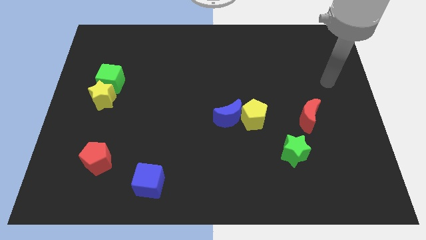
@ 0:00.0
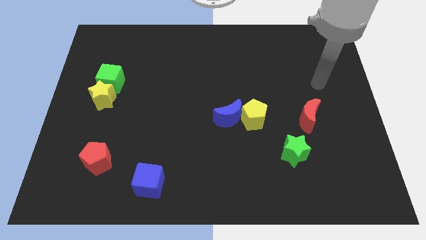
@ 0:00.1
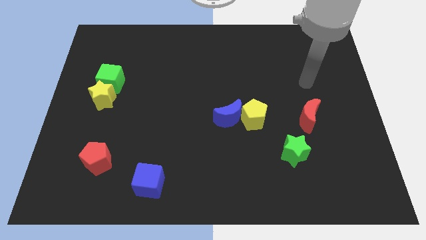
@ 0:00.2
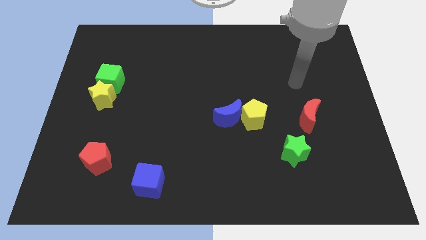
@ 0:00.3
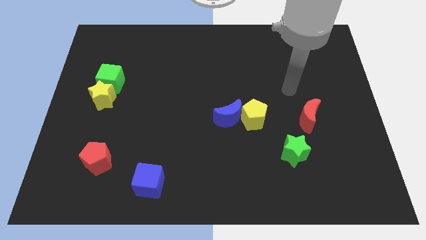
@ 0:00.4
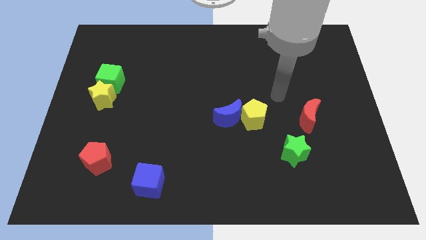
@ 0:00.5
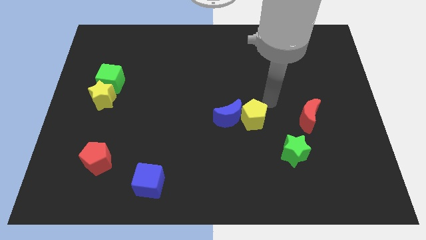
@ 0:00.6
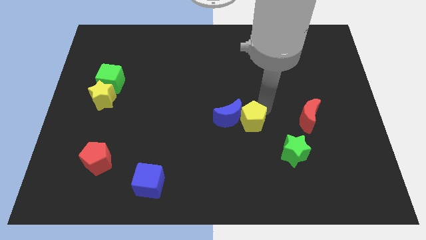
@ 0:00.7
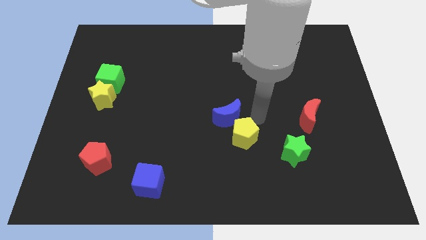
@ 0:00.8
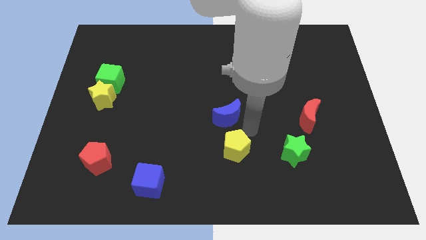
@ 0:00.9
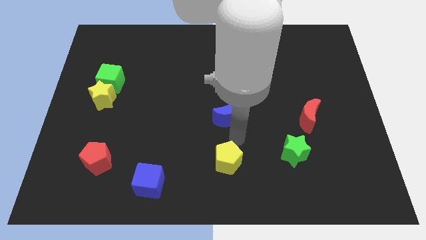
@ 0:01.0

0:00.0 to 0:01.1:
pull the blue moon apart from the yellow pentagon

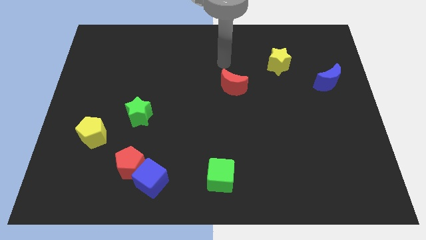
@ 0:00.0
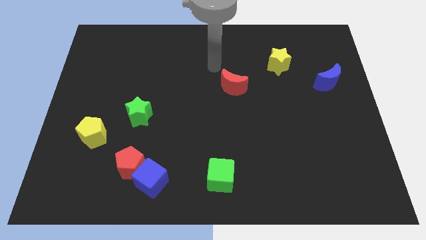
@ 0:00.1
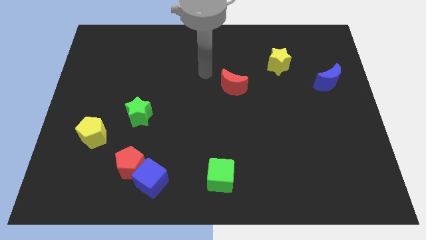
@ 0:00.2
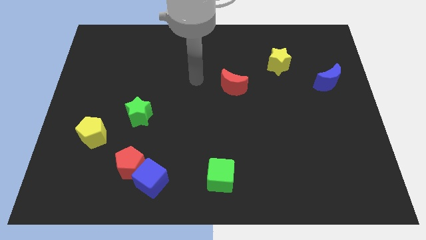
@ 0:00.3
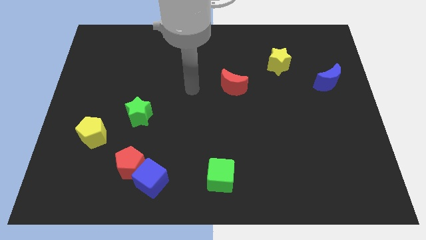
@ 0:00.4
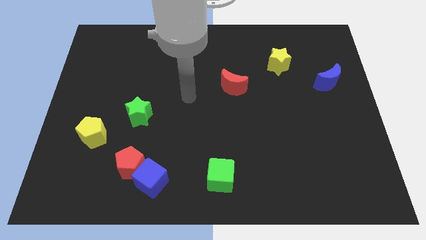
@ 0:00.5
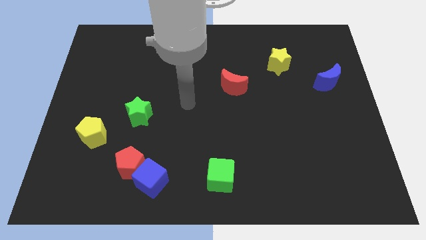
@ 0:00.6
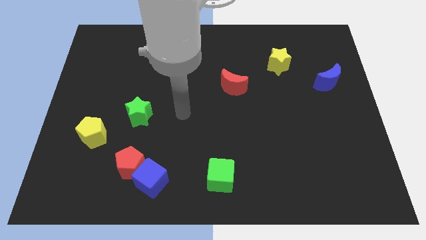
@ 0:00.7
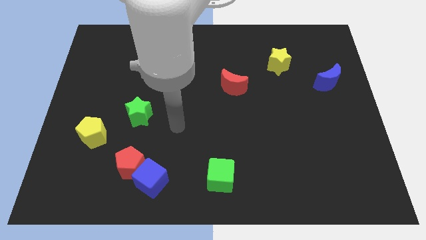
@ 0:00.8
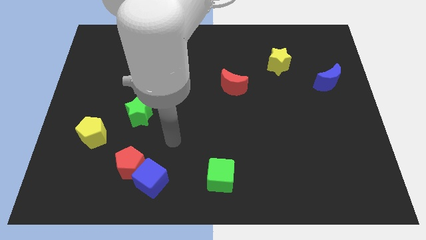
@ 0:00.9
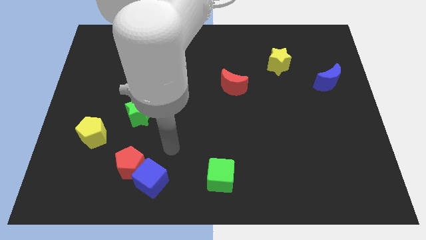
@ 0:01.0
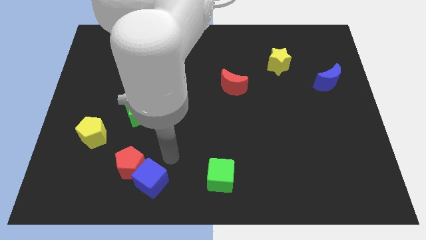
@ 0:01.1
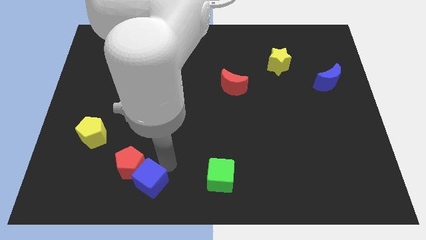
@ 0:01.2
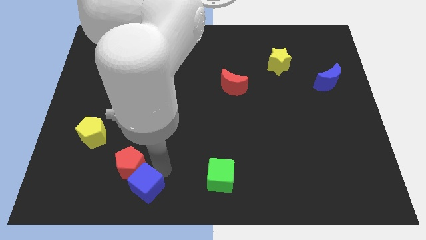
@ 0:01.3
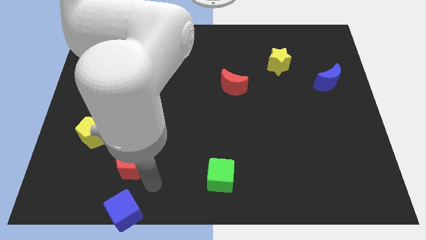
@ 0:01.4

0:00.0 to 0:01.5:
separate the red pentagon from the blue cube

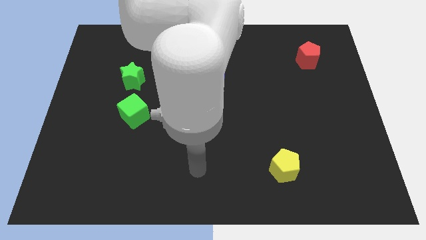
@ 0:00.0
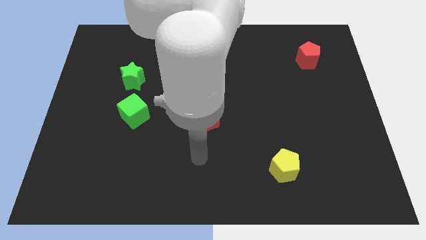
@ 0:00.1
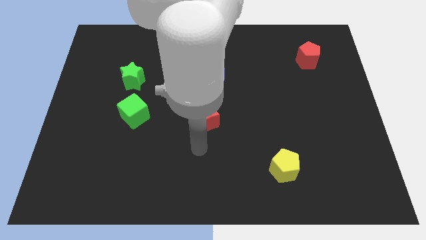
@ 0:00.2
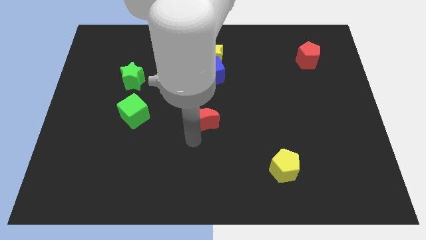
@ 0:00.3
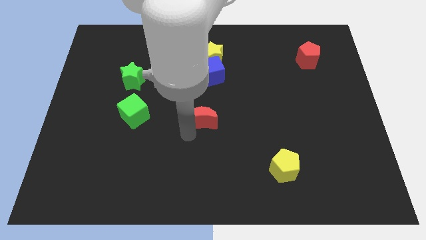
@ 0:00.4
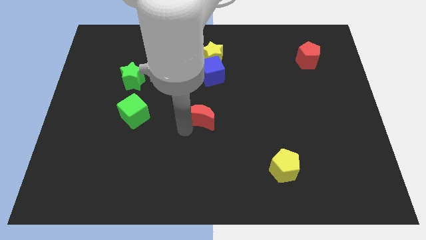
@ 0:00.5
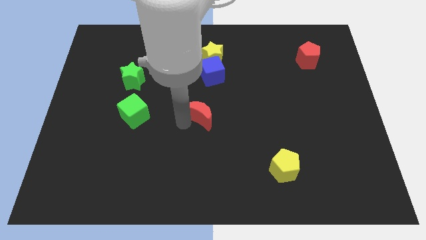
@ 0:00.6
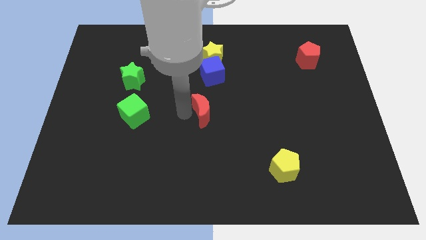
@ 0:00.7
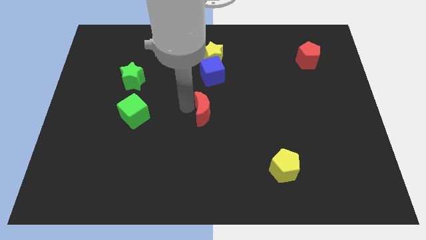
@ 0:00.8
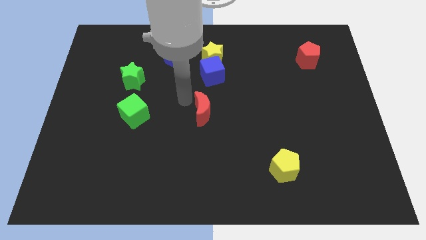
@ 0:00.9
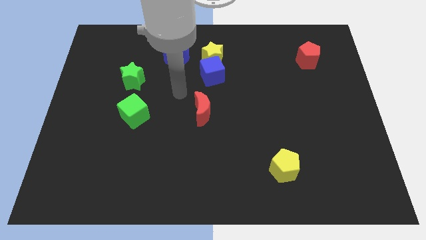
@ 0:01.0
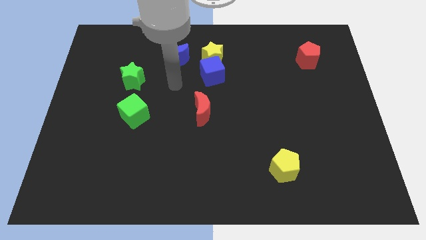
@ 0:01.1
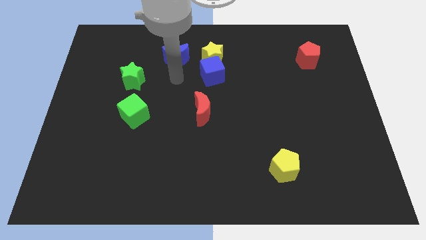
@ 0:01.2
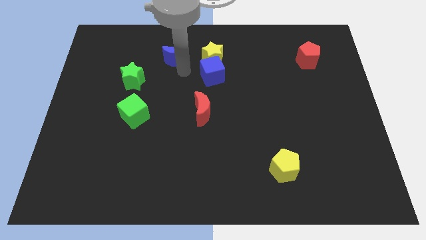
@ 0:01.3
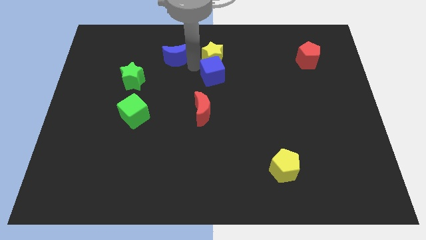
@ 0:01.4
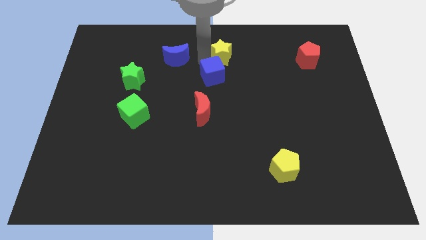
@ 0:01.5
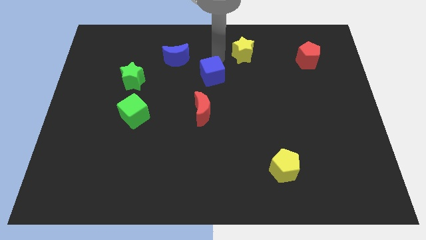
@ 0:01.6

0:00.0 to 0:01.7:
move the blue cube away from the yellow star

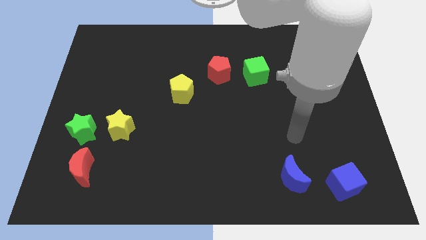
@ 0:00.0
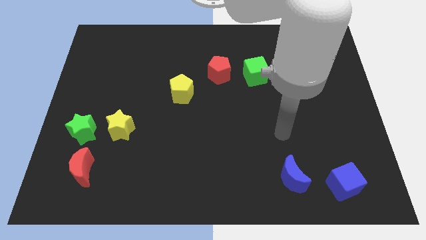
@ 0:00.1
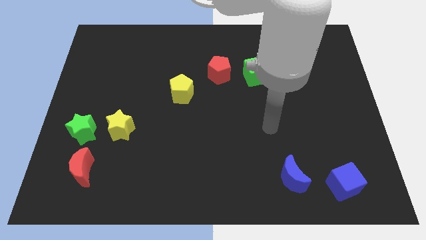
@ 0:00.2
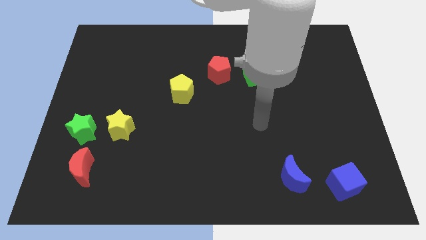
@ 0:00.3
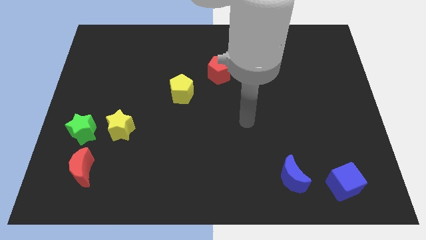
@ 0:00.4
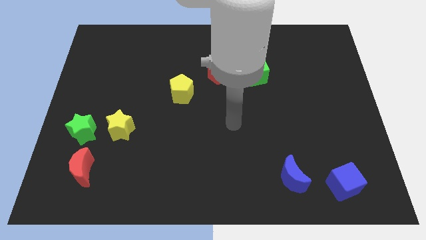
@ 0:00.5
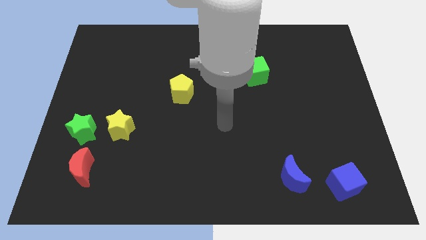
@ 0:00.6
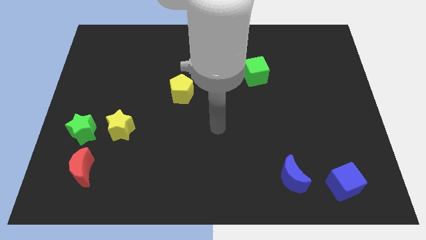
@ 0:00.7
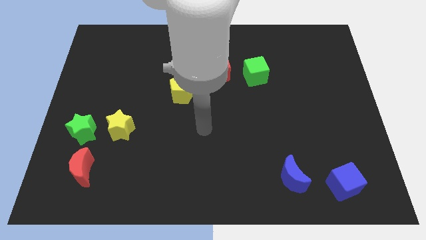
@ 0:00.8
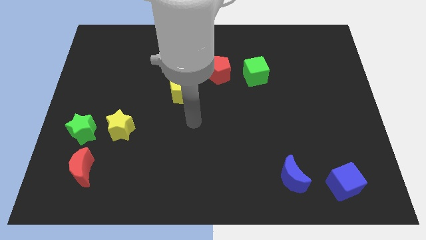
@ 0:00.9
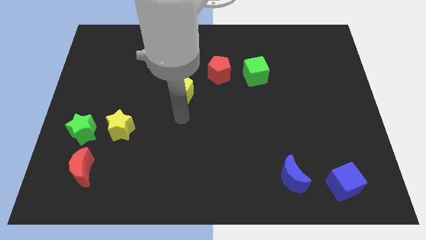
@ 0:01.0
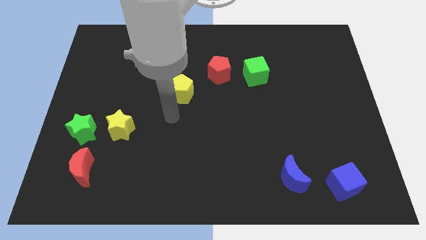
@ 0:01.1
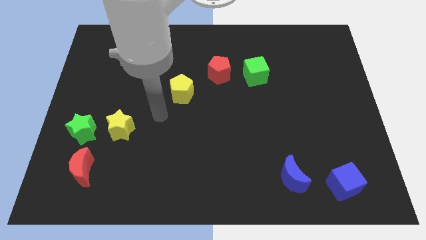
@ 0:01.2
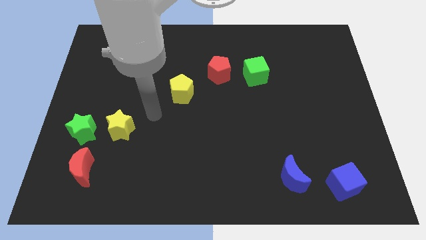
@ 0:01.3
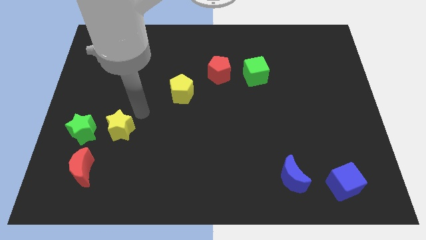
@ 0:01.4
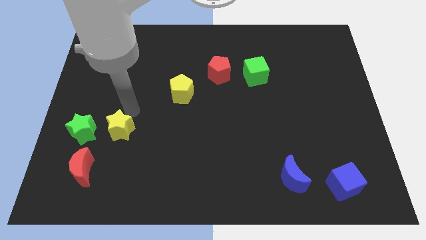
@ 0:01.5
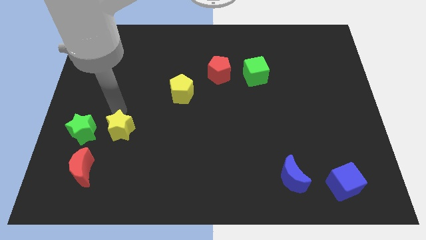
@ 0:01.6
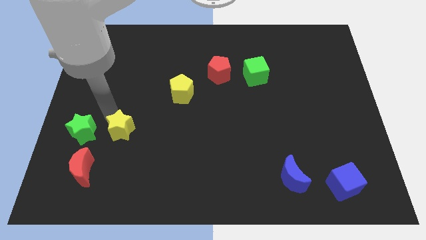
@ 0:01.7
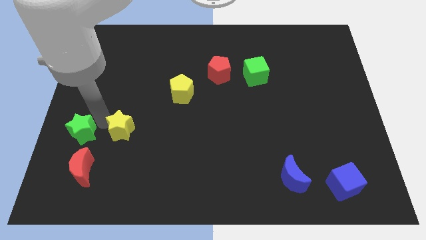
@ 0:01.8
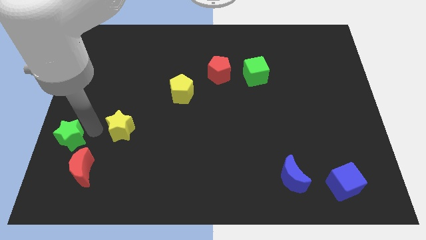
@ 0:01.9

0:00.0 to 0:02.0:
pull the yellow star apart from the green star

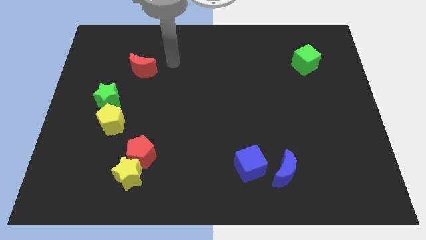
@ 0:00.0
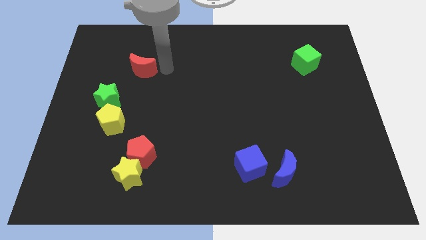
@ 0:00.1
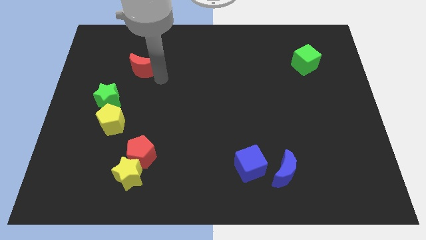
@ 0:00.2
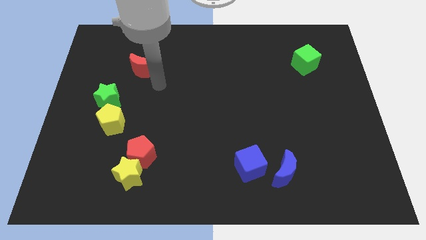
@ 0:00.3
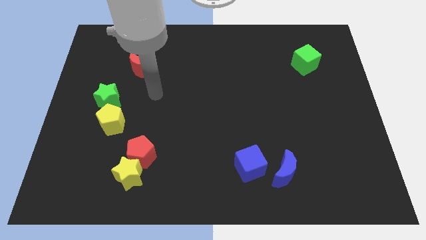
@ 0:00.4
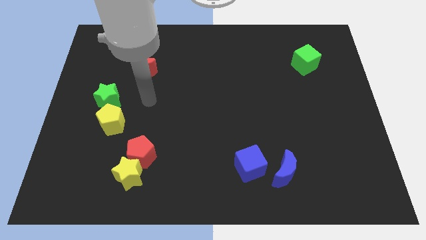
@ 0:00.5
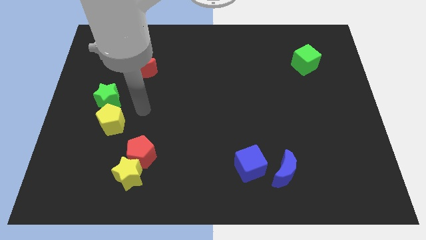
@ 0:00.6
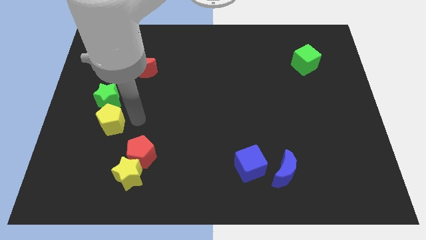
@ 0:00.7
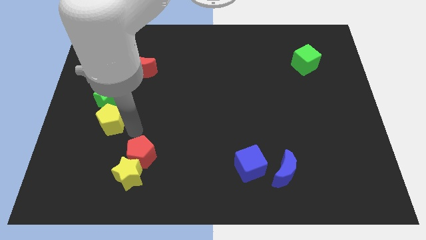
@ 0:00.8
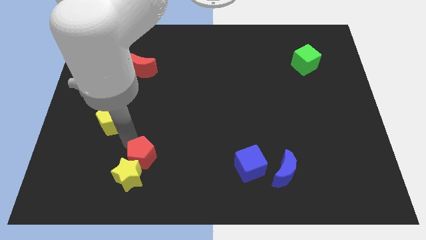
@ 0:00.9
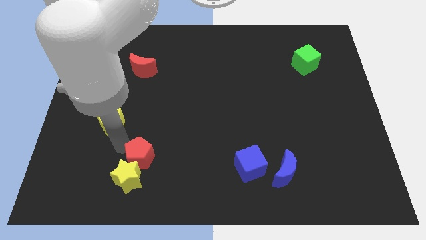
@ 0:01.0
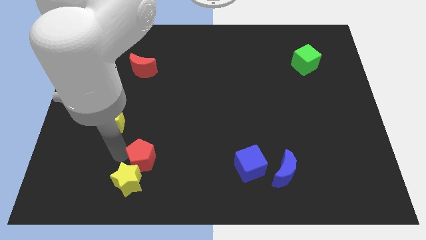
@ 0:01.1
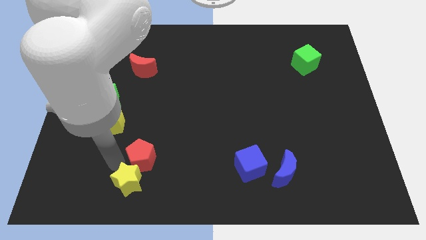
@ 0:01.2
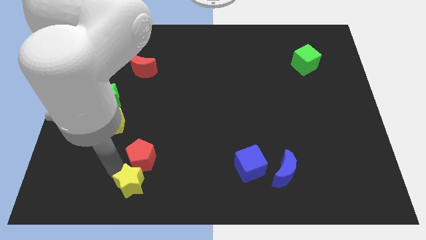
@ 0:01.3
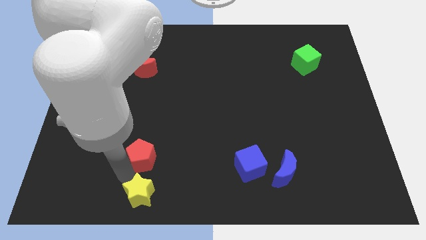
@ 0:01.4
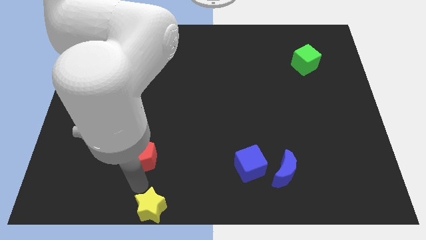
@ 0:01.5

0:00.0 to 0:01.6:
move the red pentagon away from the yellow star

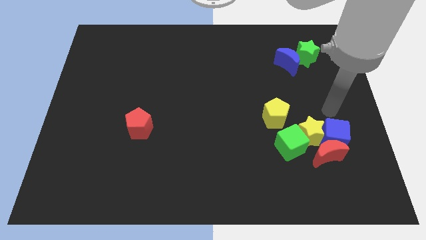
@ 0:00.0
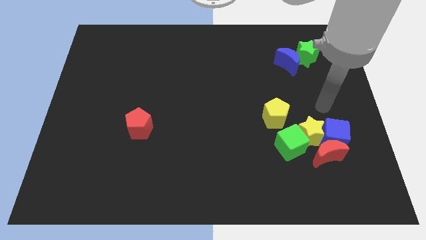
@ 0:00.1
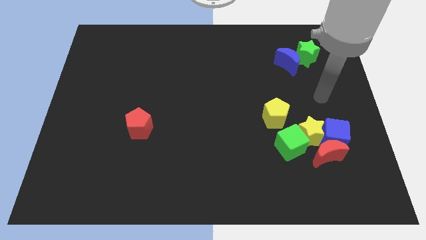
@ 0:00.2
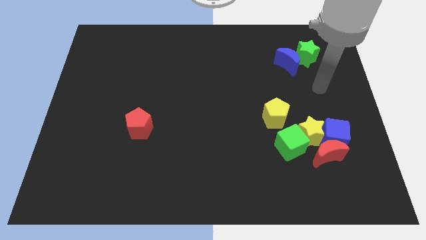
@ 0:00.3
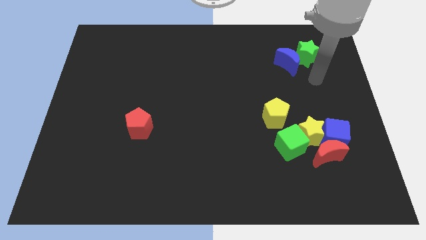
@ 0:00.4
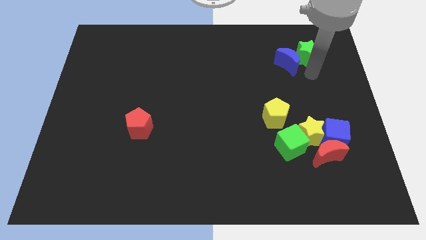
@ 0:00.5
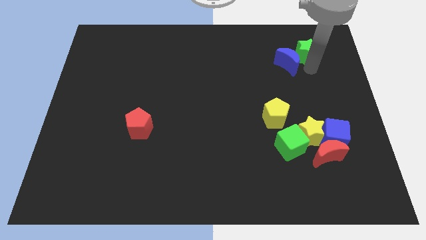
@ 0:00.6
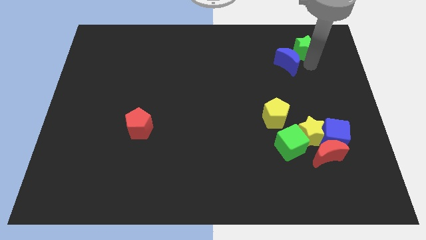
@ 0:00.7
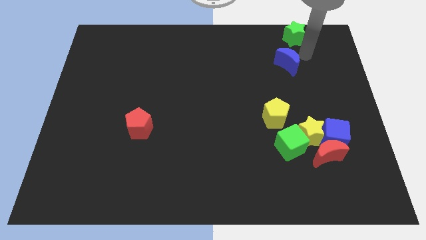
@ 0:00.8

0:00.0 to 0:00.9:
move the blue moon away from the green star

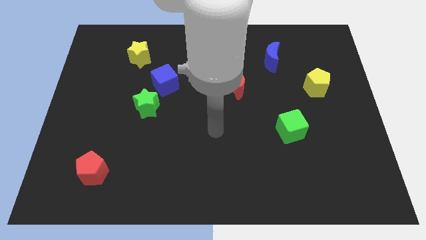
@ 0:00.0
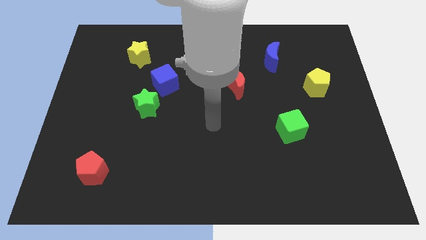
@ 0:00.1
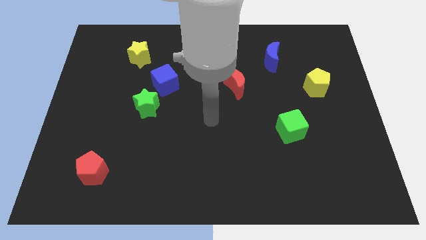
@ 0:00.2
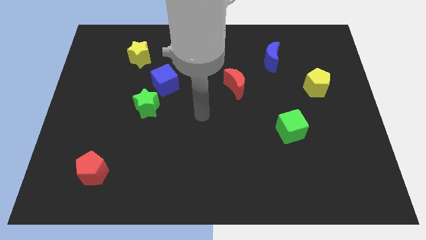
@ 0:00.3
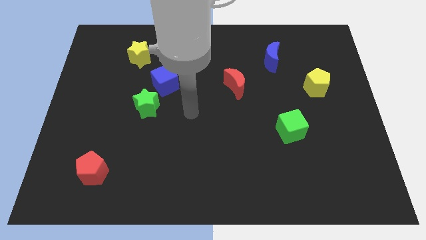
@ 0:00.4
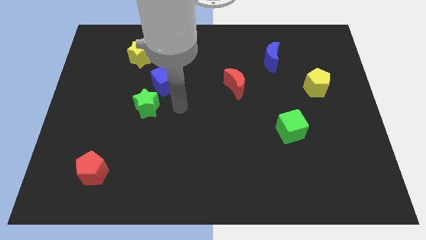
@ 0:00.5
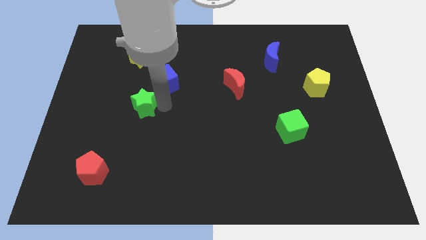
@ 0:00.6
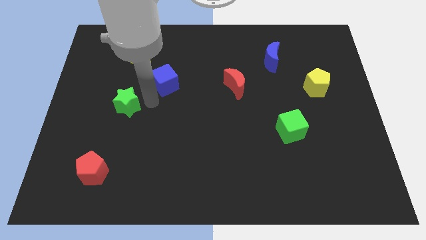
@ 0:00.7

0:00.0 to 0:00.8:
move the blue cube away from the green star
